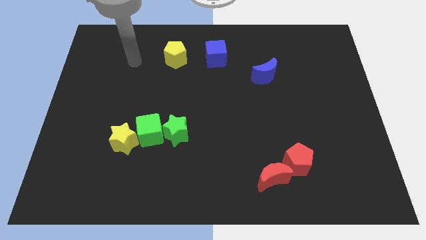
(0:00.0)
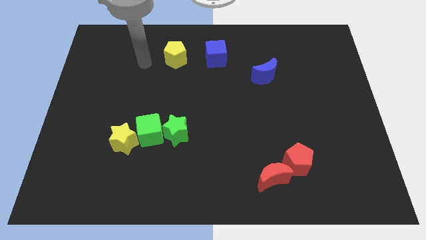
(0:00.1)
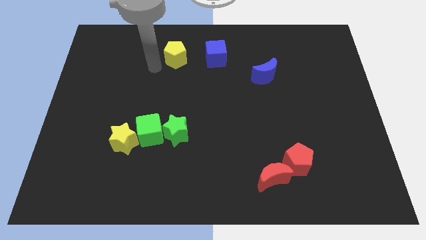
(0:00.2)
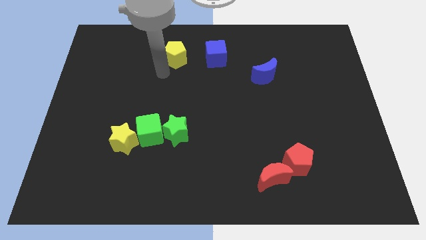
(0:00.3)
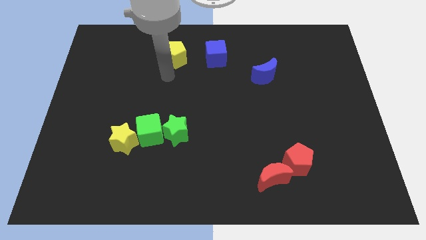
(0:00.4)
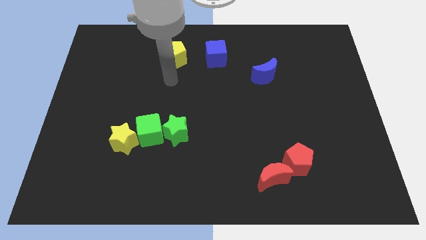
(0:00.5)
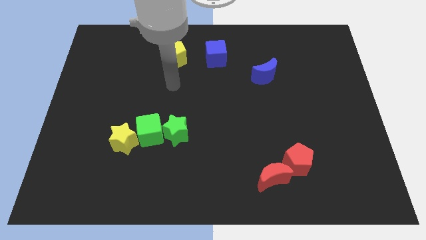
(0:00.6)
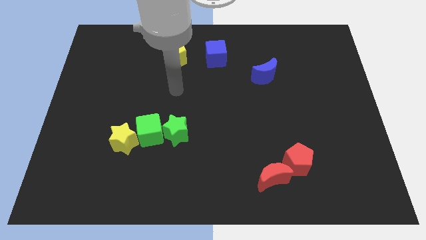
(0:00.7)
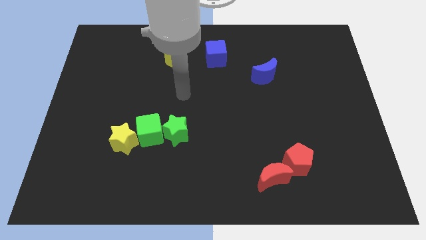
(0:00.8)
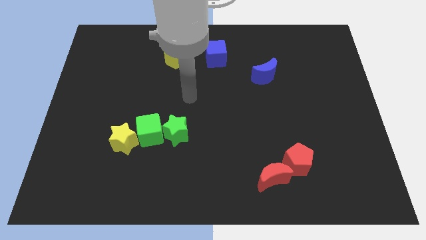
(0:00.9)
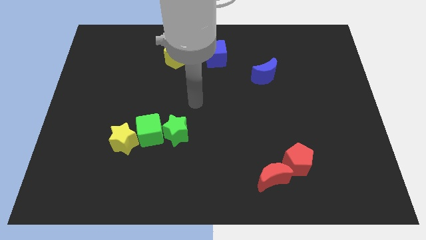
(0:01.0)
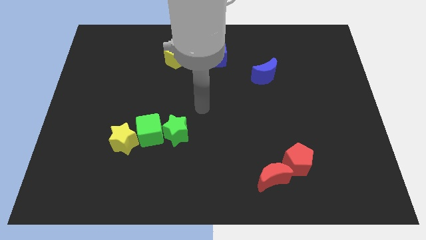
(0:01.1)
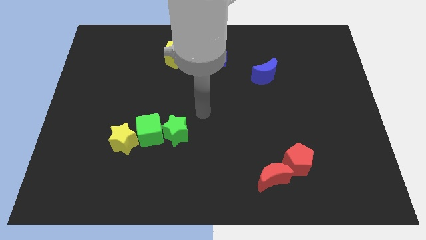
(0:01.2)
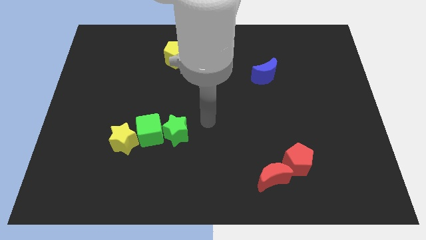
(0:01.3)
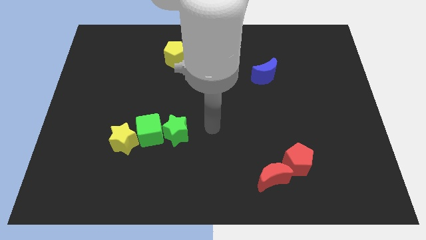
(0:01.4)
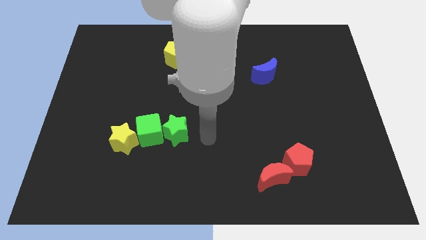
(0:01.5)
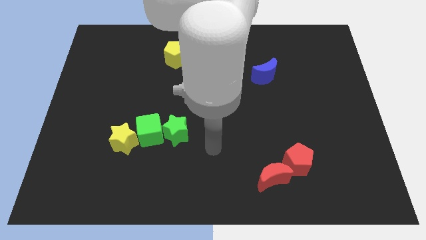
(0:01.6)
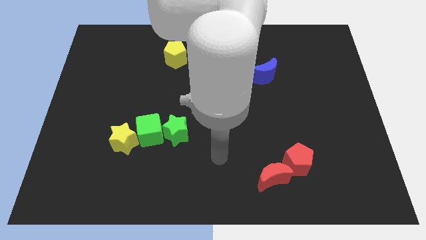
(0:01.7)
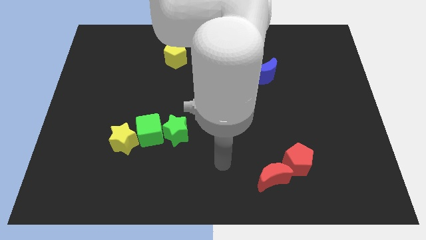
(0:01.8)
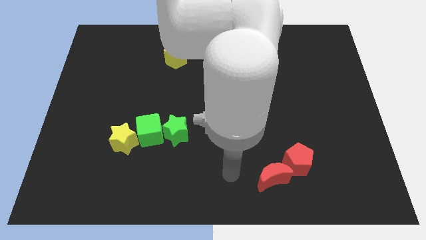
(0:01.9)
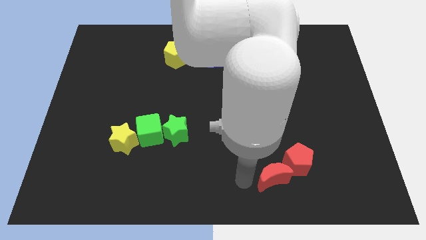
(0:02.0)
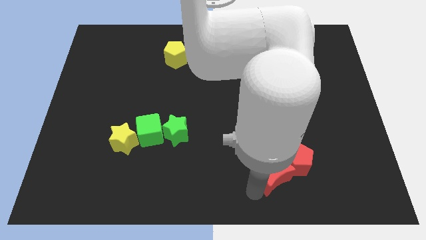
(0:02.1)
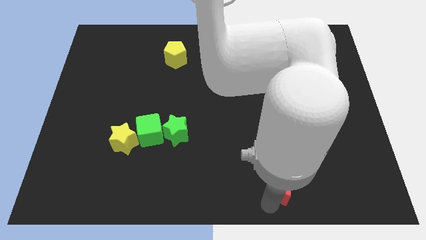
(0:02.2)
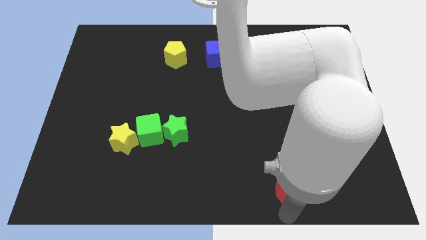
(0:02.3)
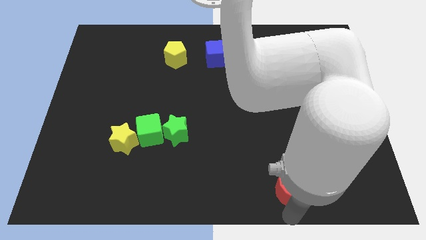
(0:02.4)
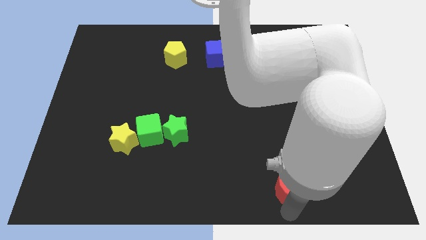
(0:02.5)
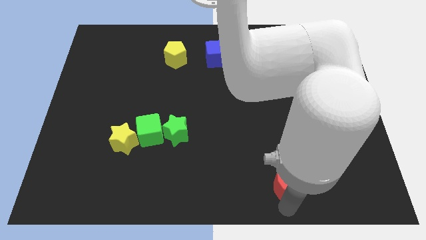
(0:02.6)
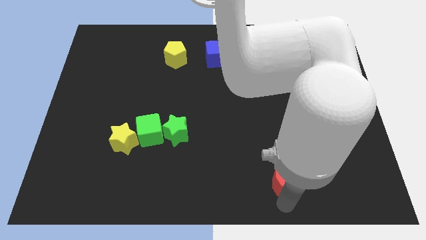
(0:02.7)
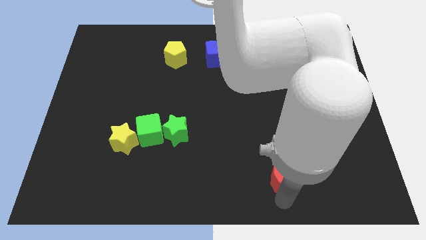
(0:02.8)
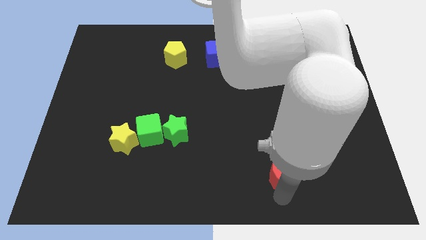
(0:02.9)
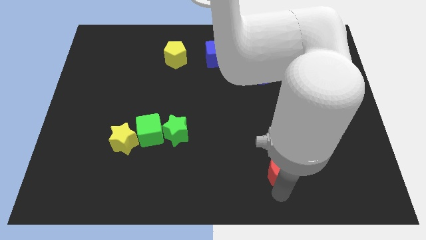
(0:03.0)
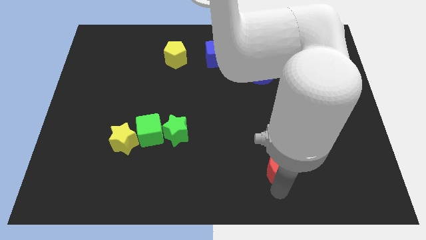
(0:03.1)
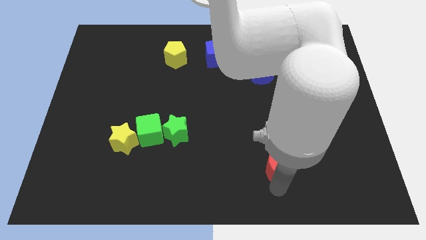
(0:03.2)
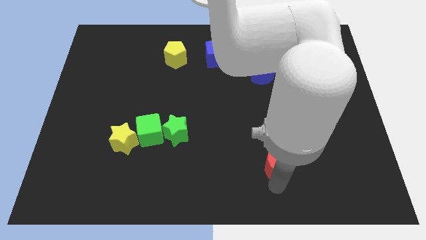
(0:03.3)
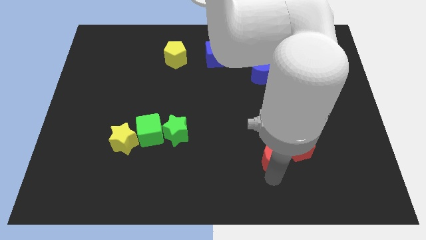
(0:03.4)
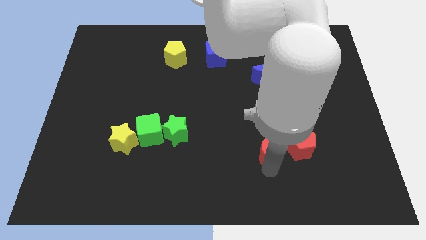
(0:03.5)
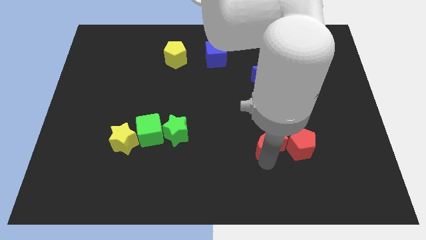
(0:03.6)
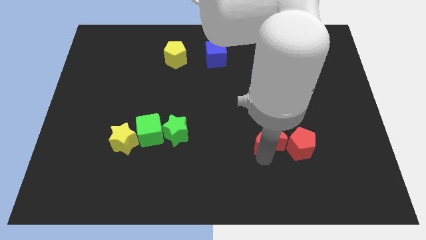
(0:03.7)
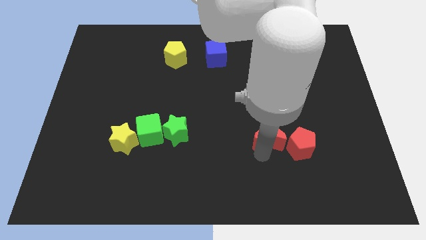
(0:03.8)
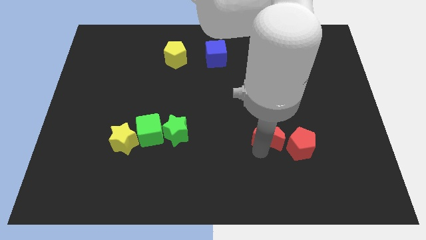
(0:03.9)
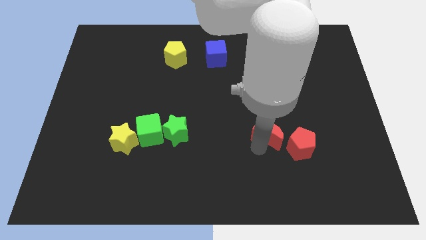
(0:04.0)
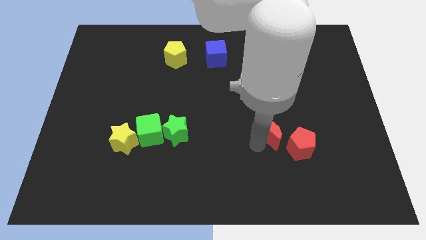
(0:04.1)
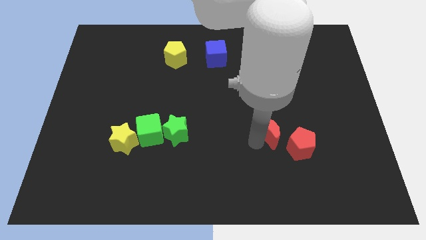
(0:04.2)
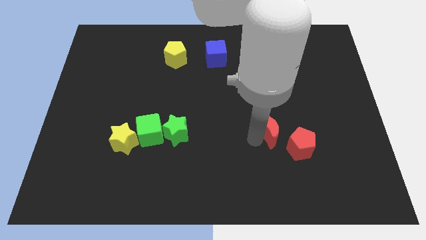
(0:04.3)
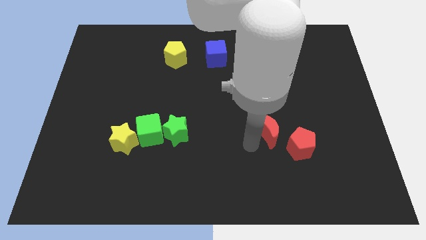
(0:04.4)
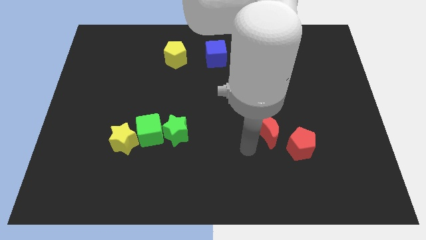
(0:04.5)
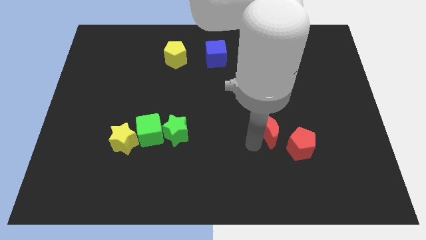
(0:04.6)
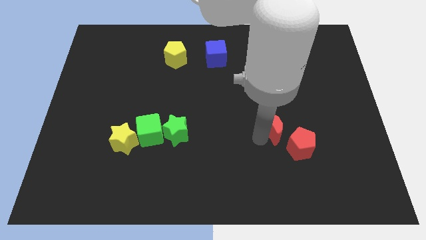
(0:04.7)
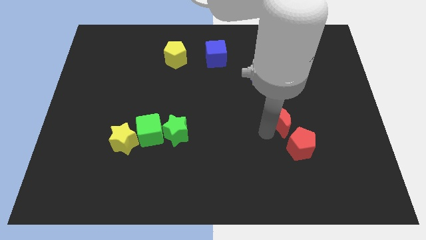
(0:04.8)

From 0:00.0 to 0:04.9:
put the red moon to the top side of the red pentagon

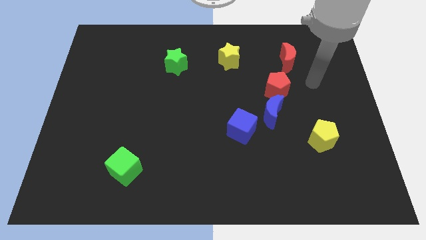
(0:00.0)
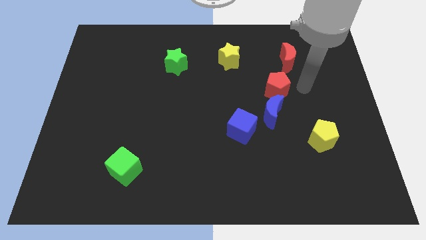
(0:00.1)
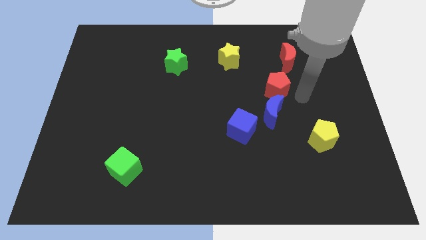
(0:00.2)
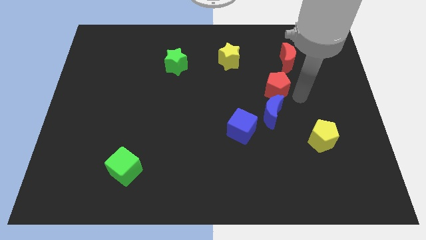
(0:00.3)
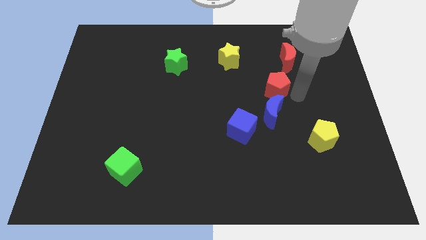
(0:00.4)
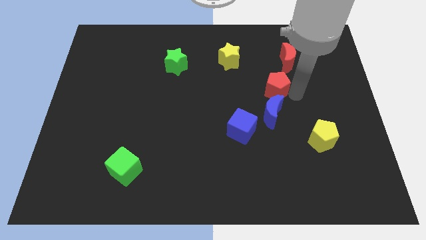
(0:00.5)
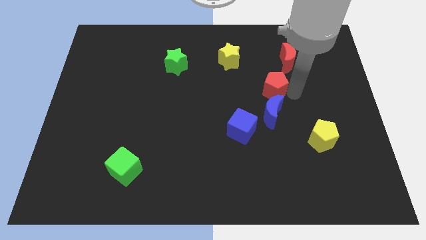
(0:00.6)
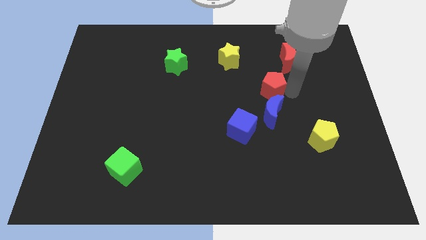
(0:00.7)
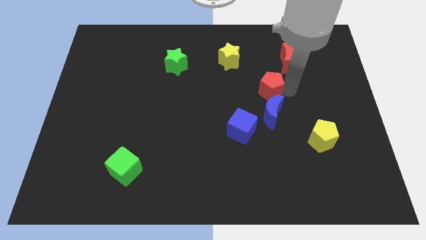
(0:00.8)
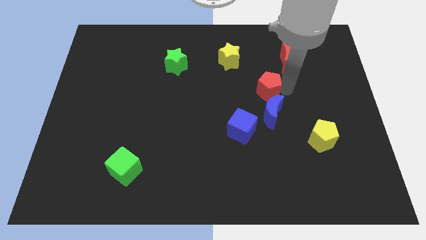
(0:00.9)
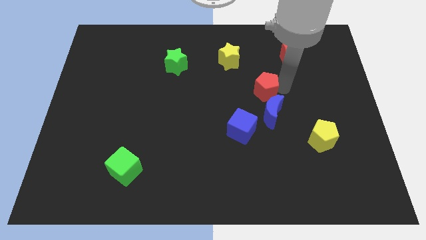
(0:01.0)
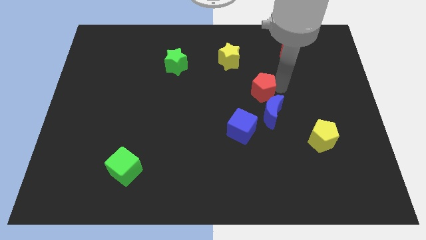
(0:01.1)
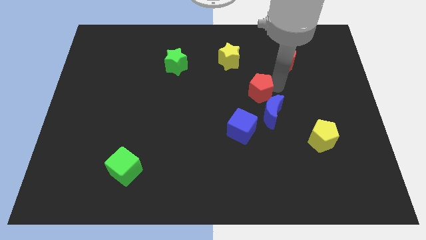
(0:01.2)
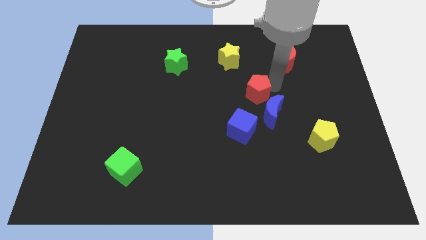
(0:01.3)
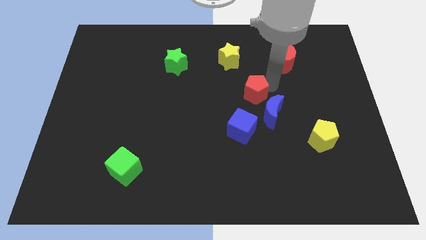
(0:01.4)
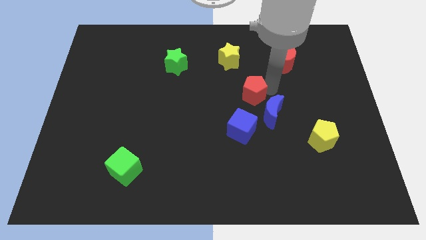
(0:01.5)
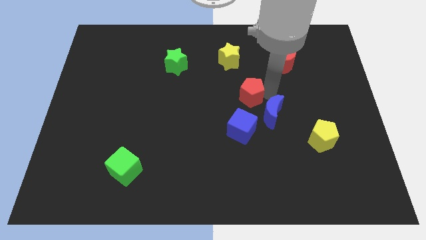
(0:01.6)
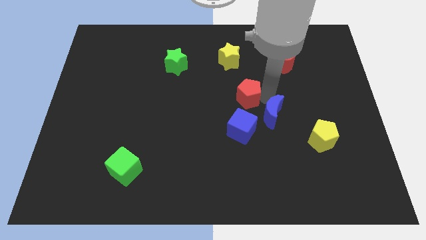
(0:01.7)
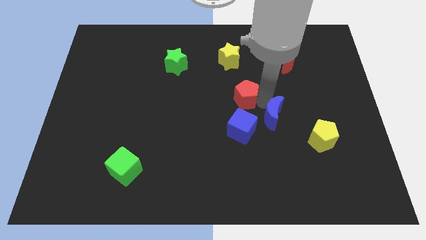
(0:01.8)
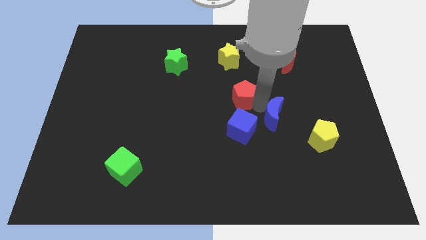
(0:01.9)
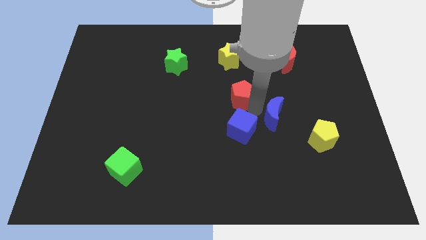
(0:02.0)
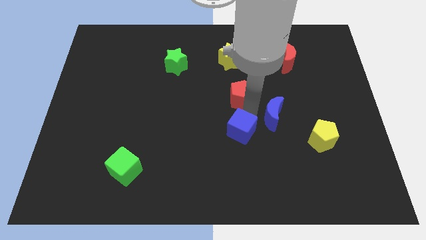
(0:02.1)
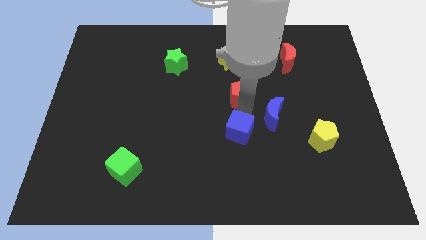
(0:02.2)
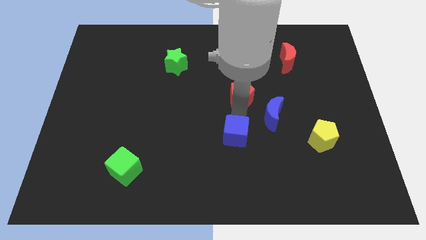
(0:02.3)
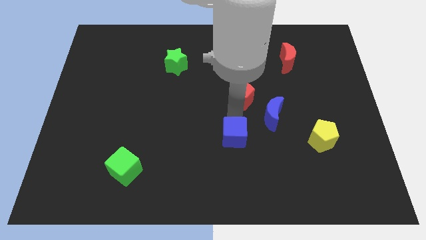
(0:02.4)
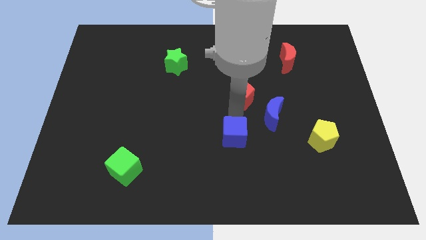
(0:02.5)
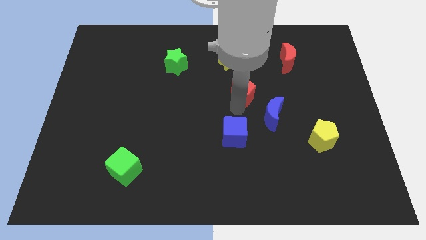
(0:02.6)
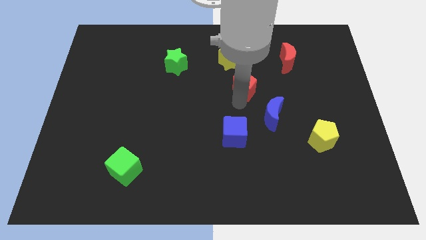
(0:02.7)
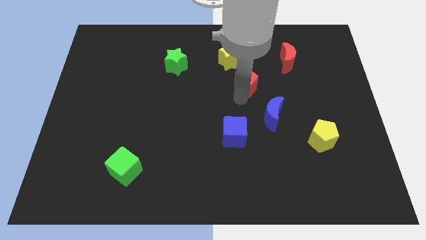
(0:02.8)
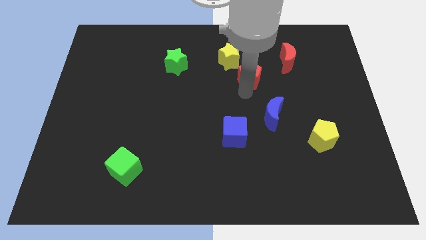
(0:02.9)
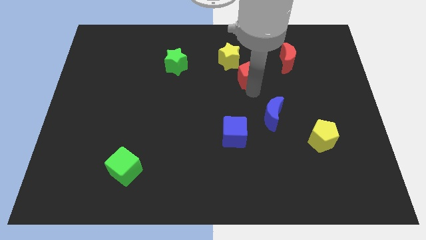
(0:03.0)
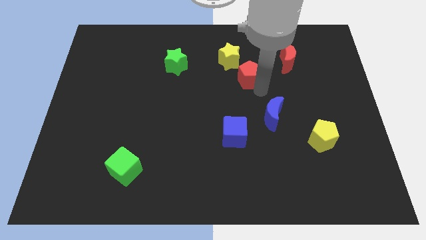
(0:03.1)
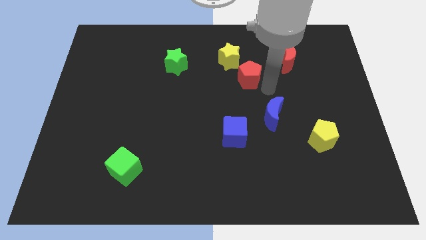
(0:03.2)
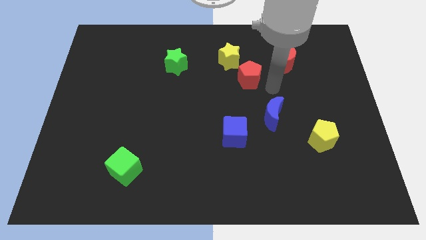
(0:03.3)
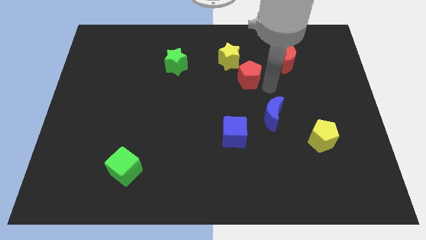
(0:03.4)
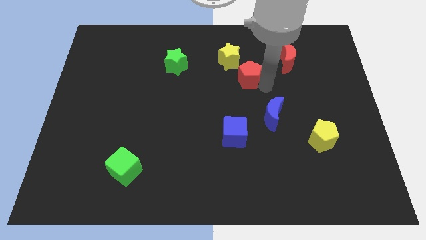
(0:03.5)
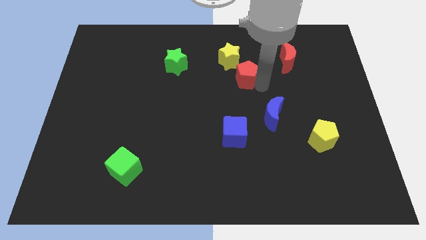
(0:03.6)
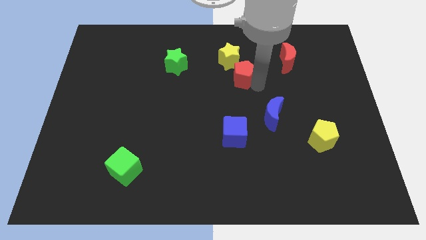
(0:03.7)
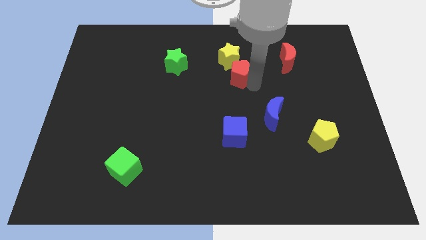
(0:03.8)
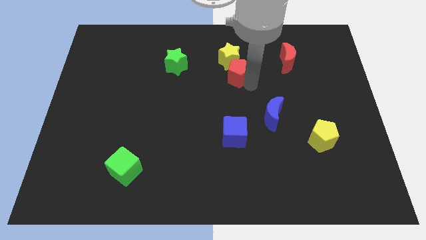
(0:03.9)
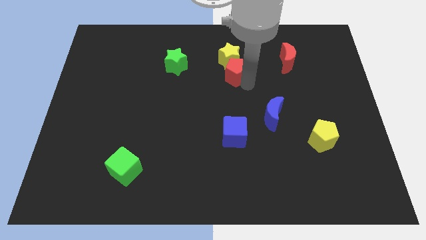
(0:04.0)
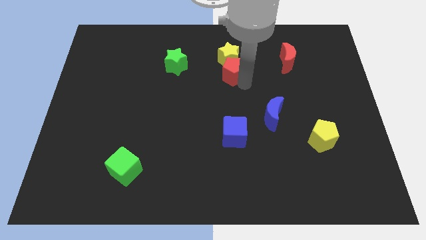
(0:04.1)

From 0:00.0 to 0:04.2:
move the red pentagon just right of the green star
